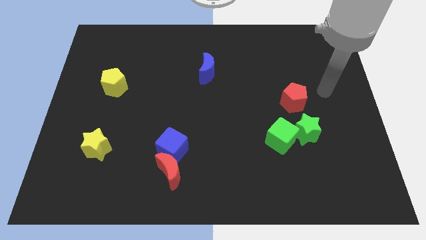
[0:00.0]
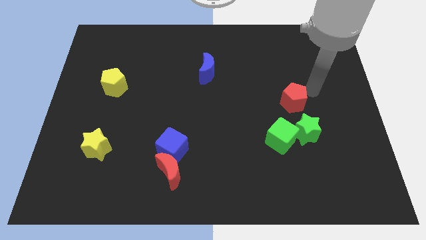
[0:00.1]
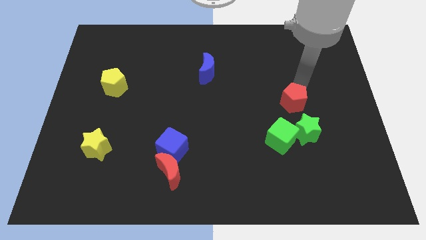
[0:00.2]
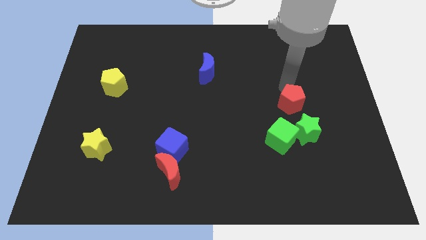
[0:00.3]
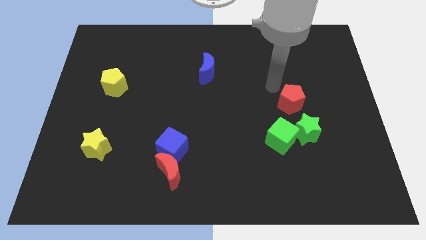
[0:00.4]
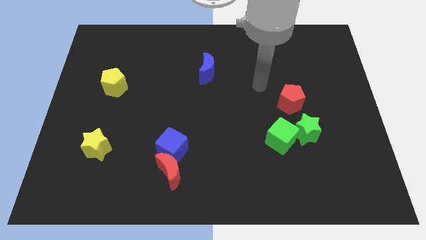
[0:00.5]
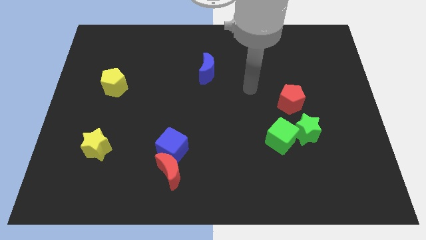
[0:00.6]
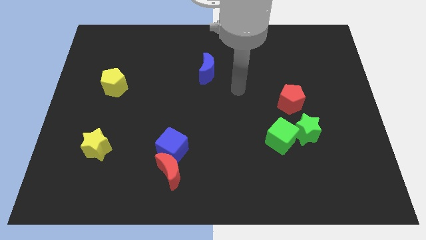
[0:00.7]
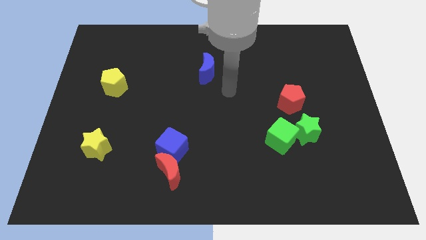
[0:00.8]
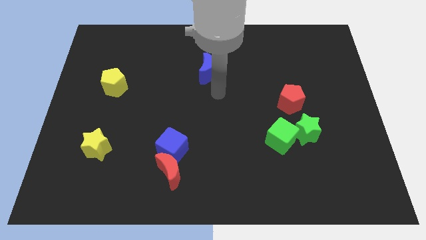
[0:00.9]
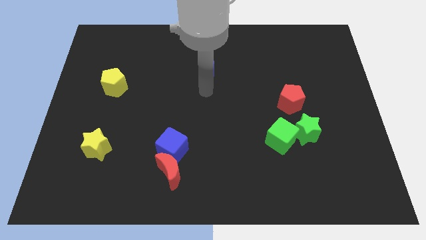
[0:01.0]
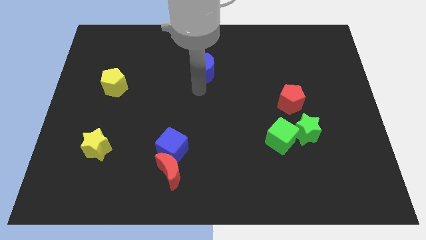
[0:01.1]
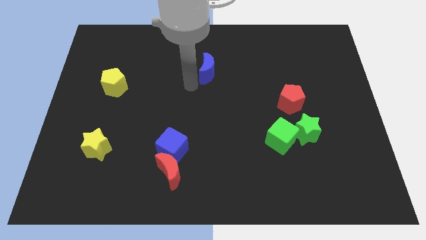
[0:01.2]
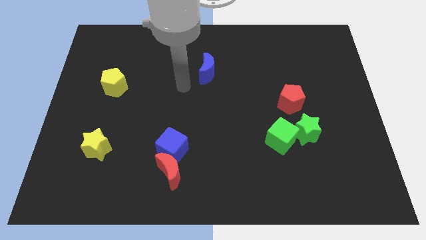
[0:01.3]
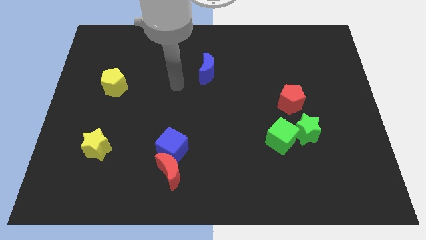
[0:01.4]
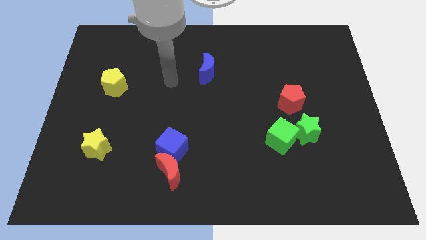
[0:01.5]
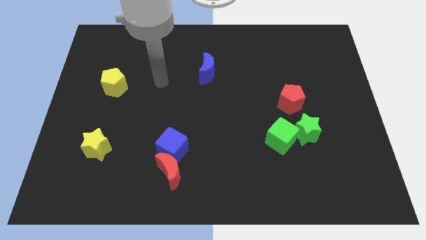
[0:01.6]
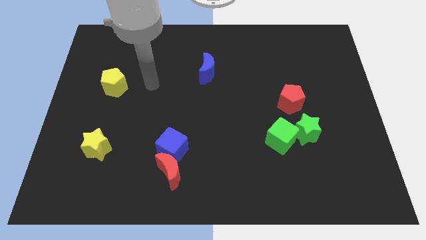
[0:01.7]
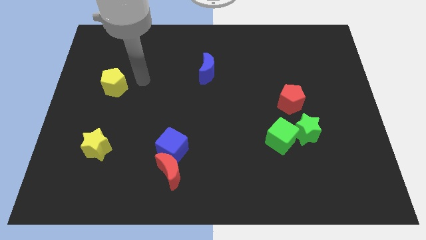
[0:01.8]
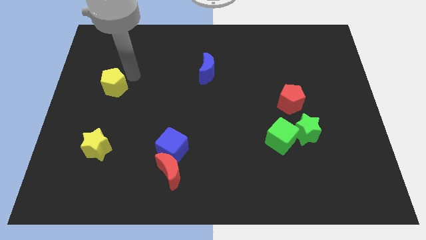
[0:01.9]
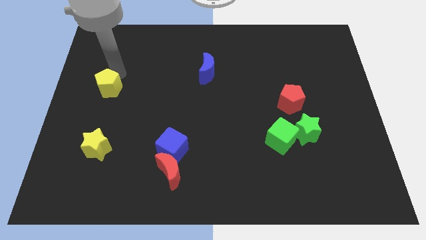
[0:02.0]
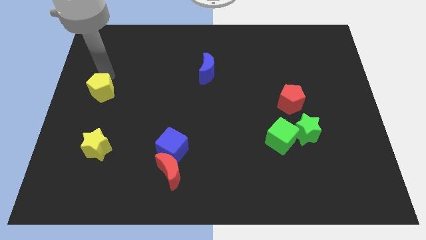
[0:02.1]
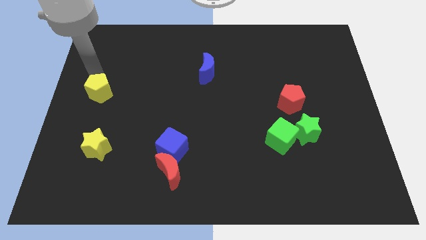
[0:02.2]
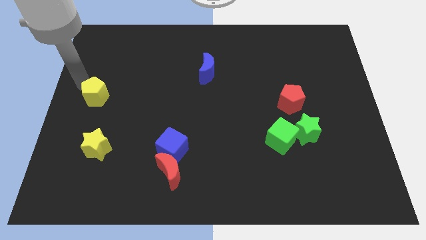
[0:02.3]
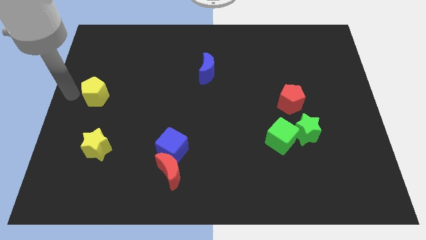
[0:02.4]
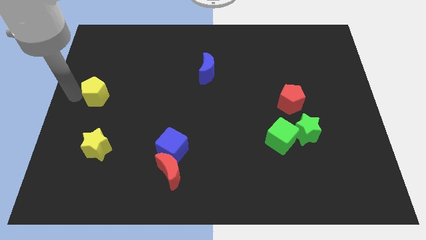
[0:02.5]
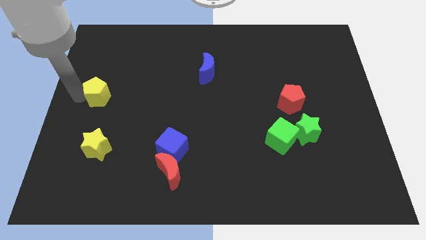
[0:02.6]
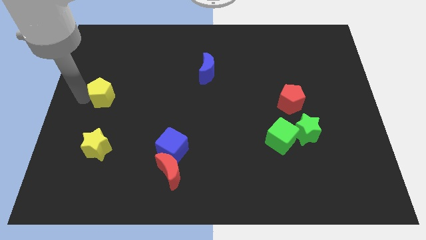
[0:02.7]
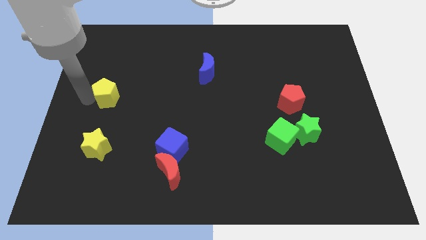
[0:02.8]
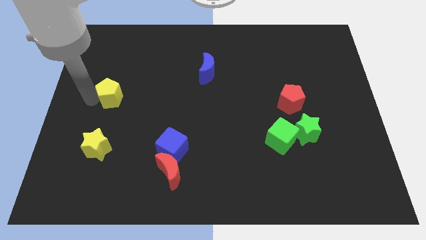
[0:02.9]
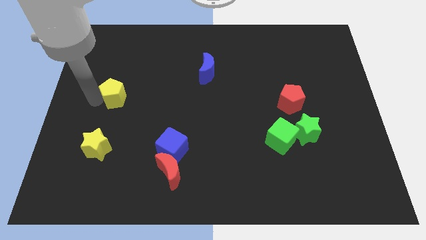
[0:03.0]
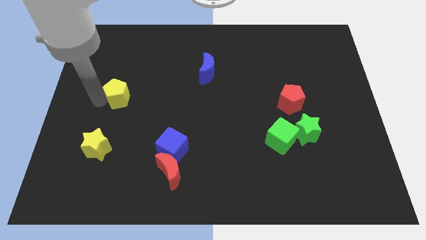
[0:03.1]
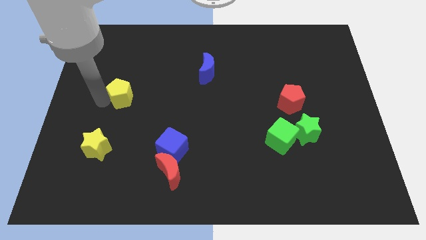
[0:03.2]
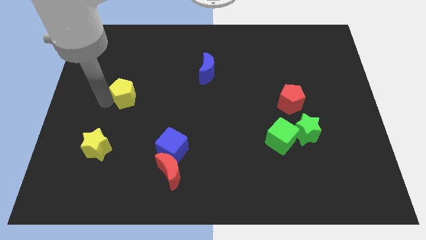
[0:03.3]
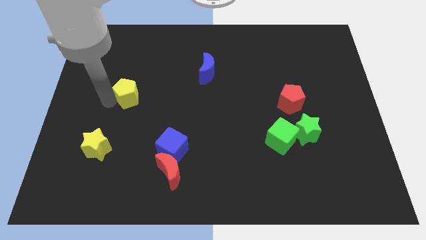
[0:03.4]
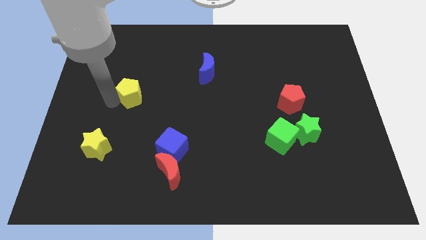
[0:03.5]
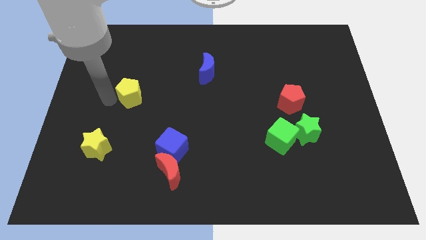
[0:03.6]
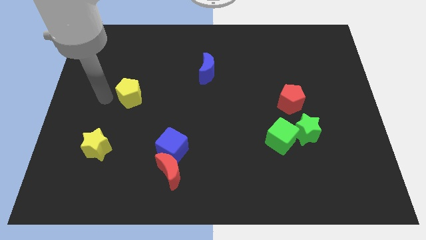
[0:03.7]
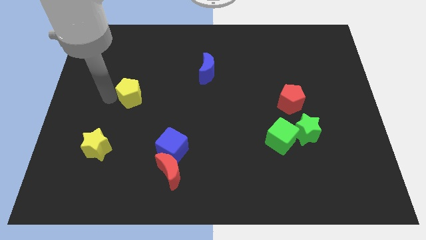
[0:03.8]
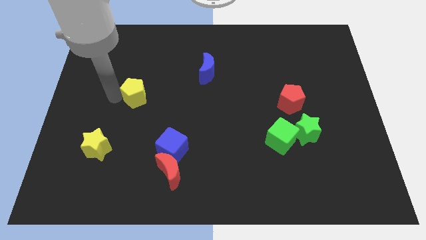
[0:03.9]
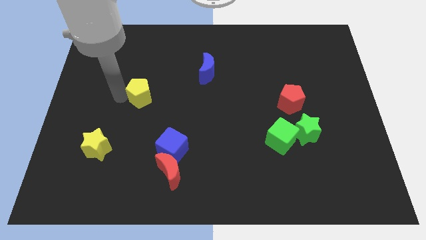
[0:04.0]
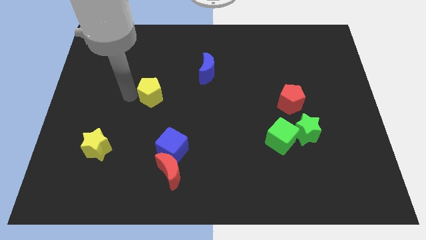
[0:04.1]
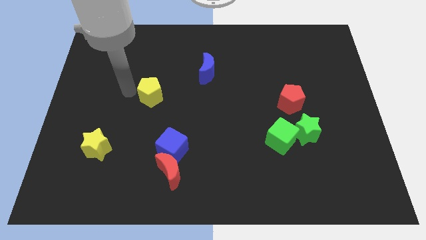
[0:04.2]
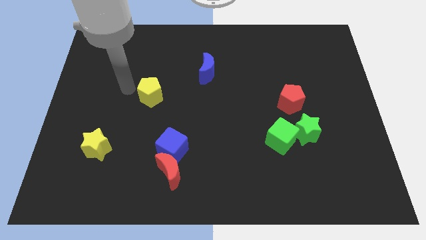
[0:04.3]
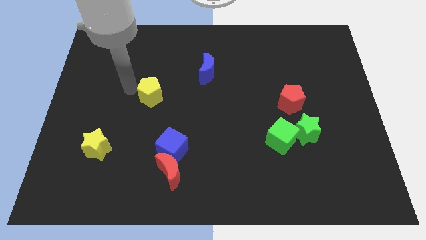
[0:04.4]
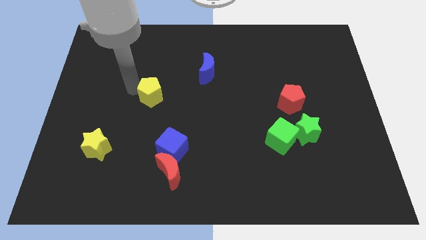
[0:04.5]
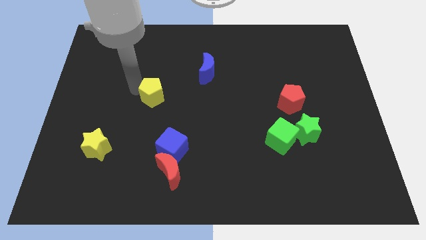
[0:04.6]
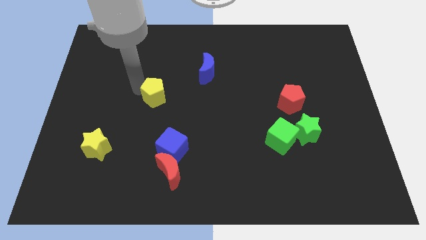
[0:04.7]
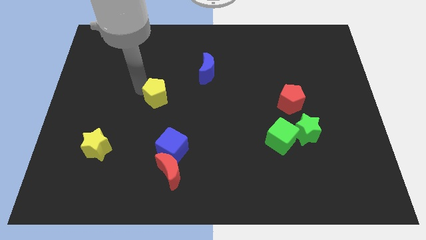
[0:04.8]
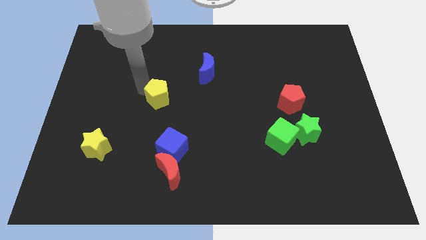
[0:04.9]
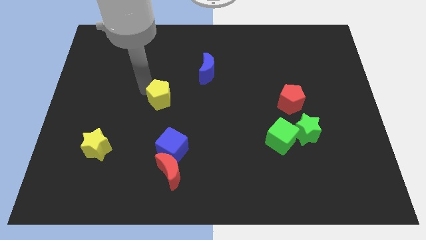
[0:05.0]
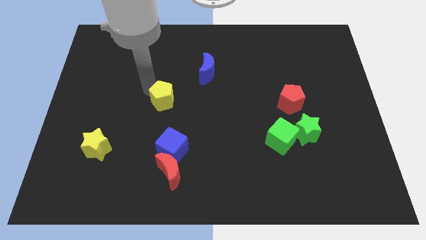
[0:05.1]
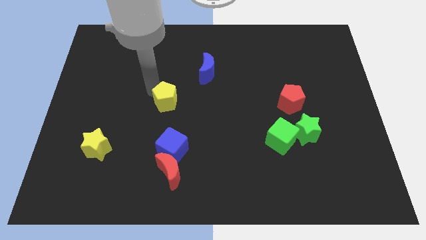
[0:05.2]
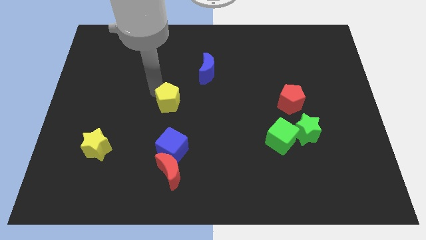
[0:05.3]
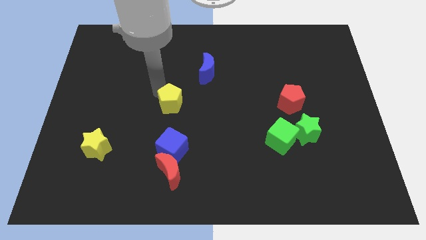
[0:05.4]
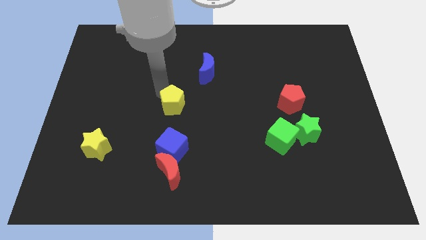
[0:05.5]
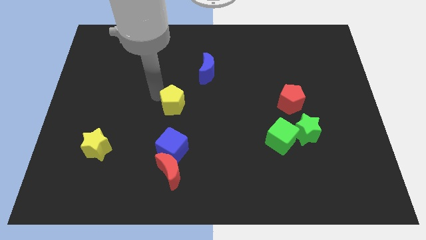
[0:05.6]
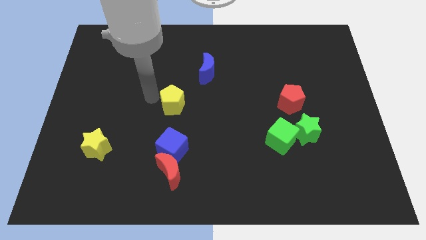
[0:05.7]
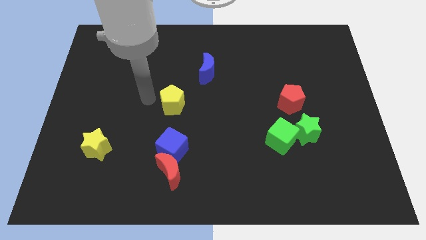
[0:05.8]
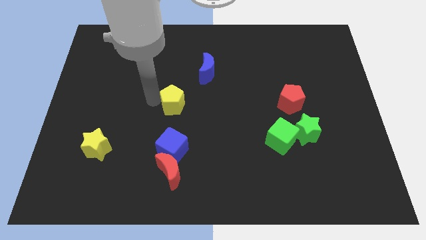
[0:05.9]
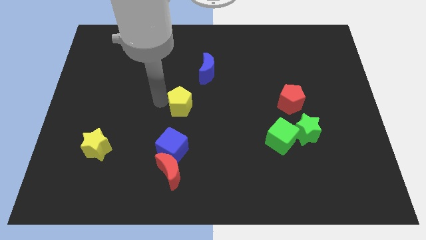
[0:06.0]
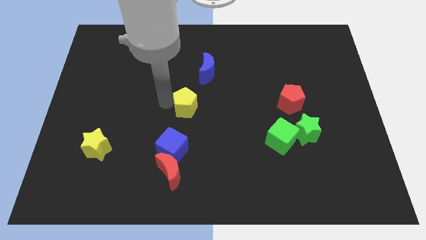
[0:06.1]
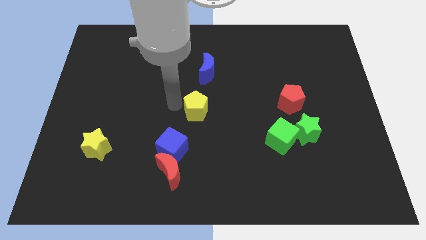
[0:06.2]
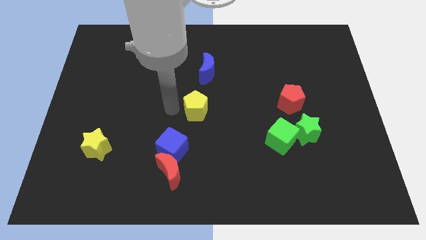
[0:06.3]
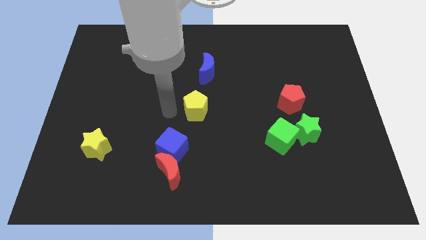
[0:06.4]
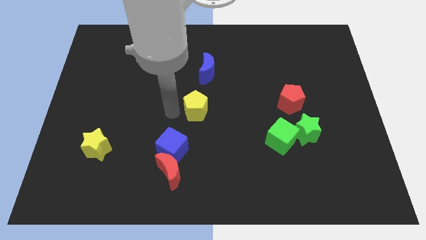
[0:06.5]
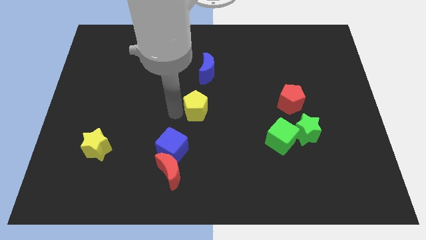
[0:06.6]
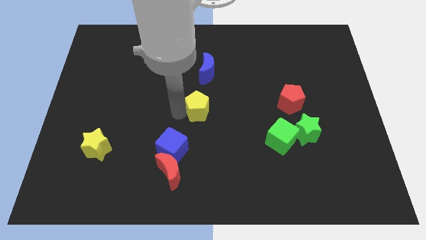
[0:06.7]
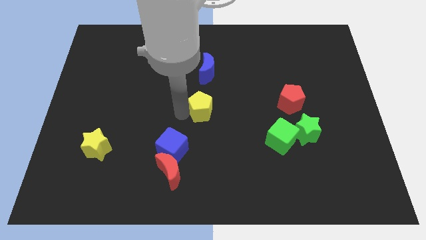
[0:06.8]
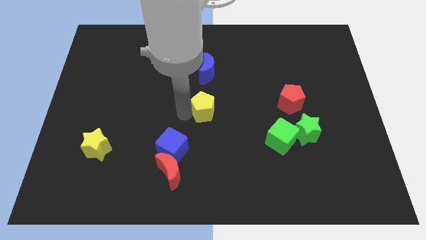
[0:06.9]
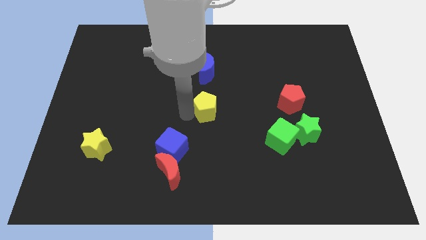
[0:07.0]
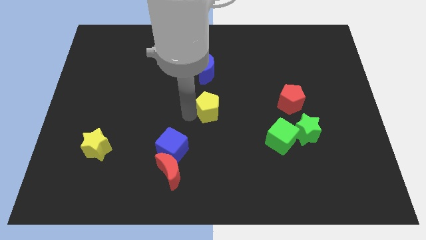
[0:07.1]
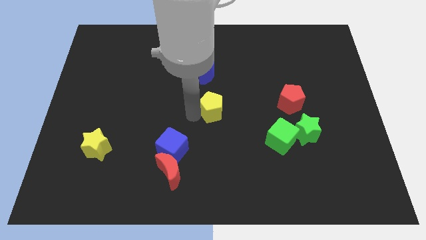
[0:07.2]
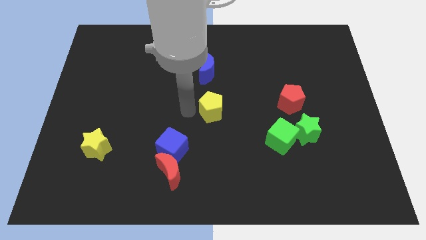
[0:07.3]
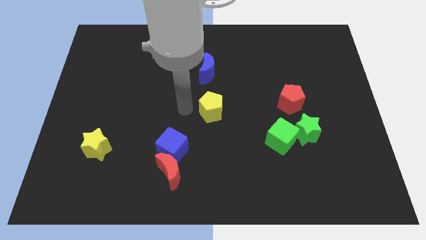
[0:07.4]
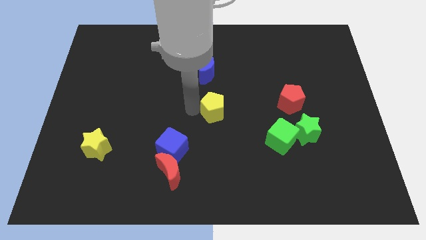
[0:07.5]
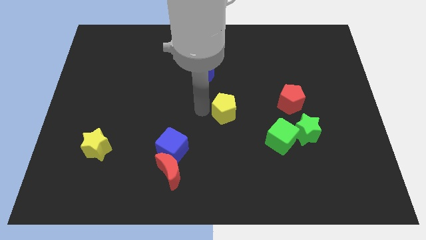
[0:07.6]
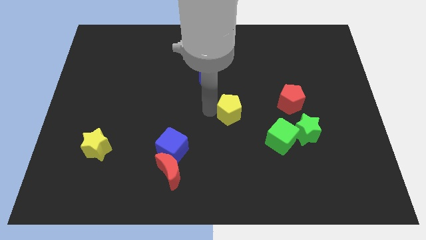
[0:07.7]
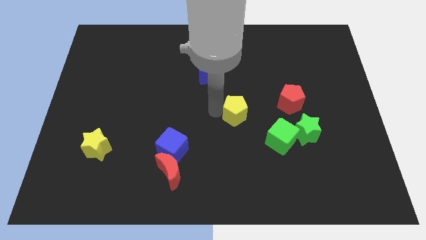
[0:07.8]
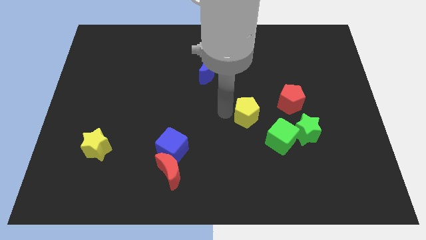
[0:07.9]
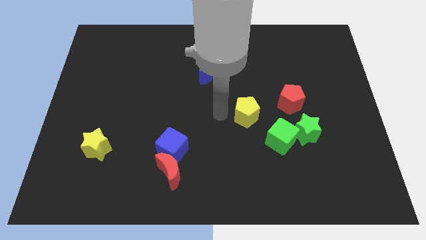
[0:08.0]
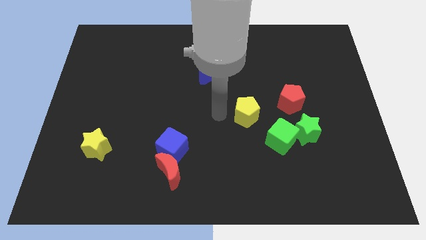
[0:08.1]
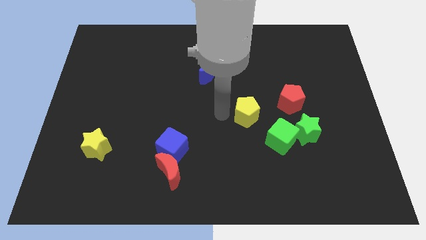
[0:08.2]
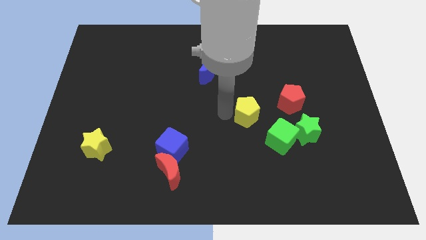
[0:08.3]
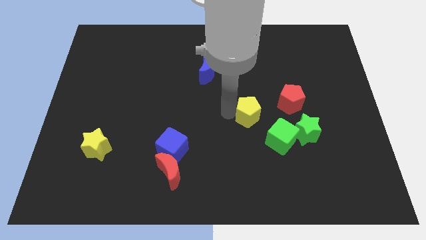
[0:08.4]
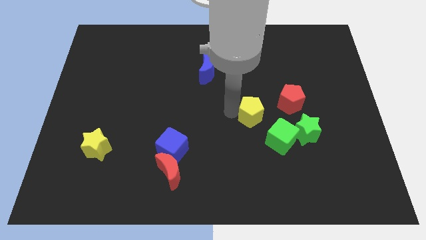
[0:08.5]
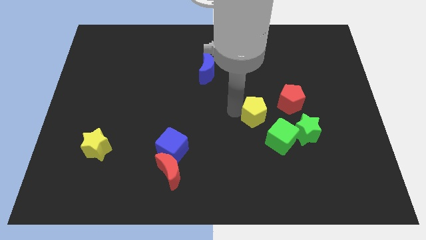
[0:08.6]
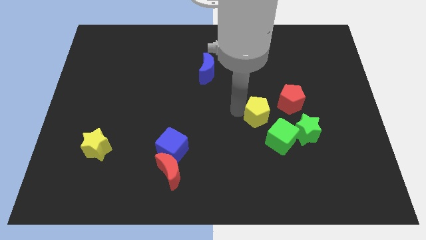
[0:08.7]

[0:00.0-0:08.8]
slide the yellow pentagon to the top left side of the green star
